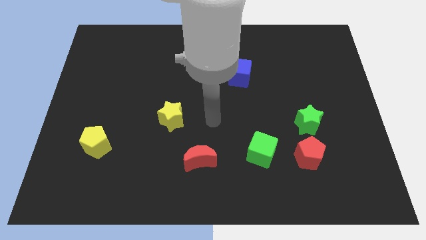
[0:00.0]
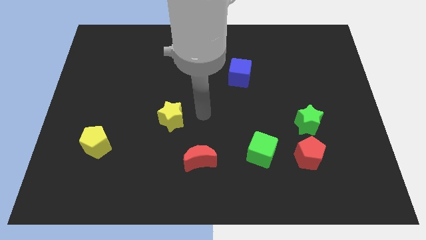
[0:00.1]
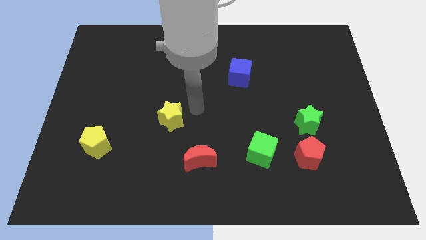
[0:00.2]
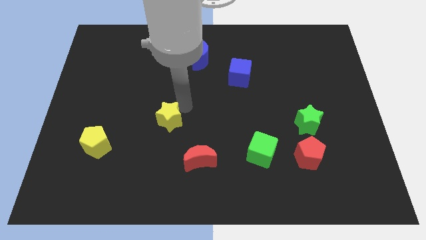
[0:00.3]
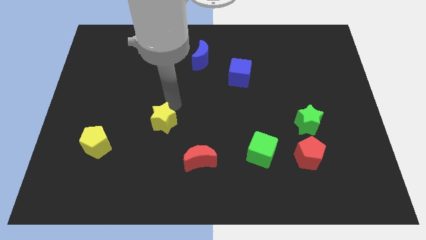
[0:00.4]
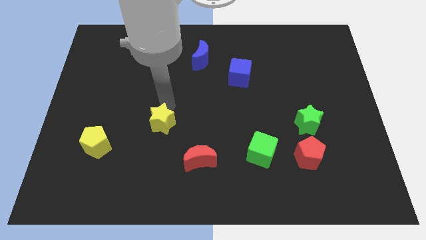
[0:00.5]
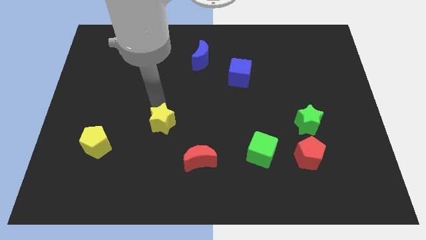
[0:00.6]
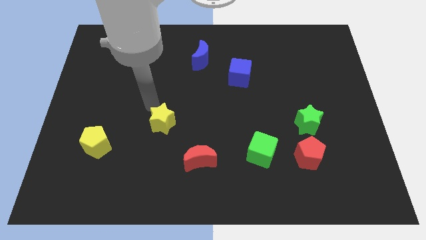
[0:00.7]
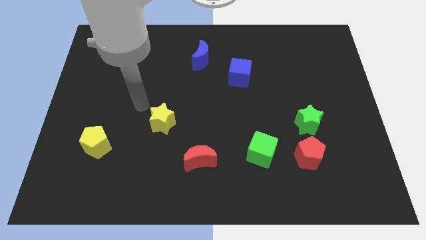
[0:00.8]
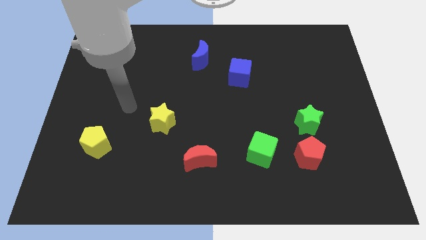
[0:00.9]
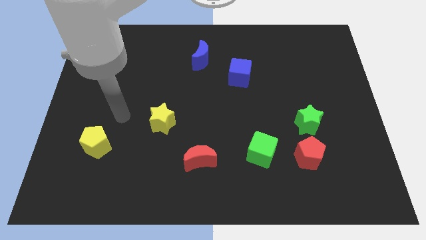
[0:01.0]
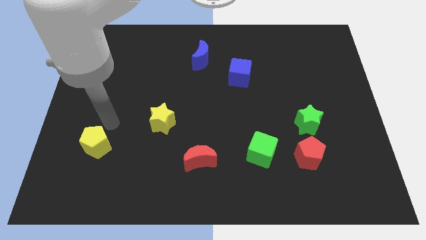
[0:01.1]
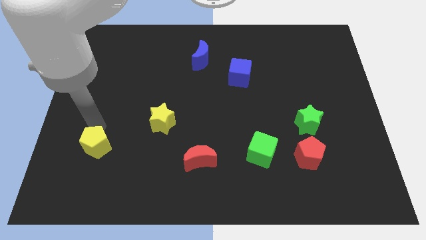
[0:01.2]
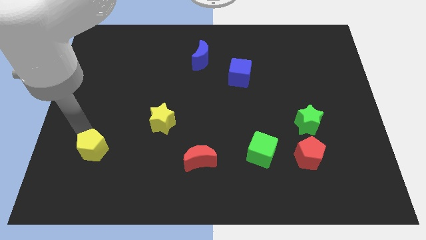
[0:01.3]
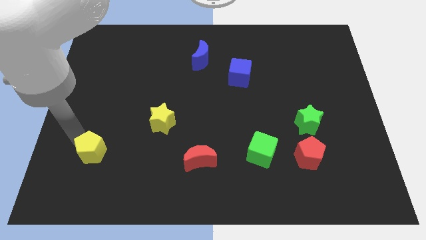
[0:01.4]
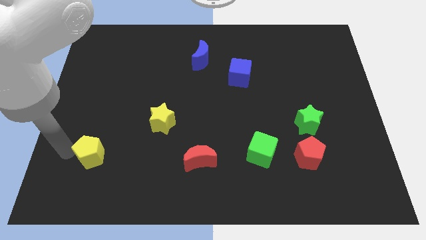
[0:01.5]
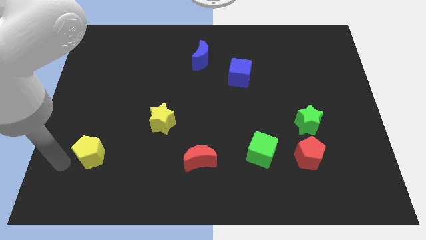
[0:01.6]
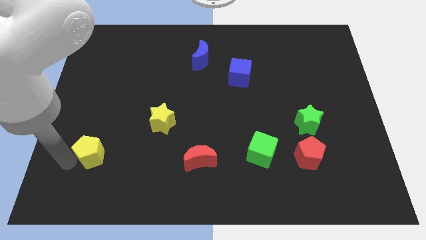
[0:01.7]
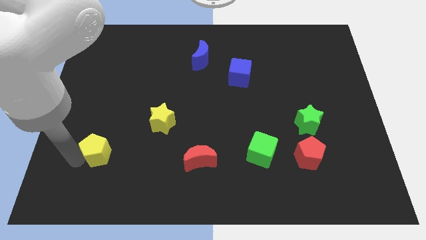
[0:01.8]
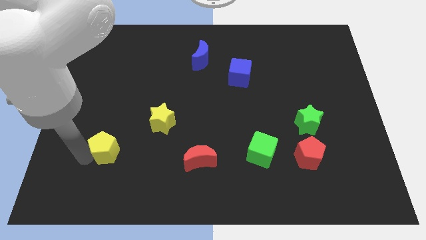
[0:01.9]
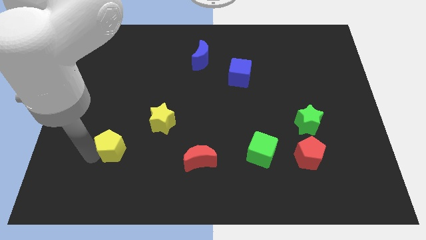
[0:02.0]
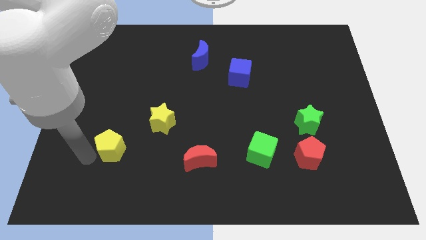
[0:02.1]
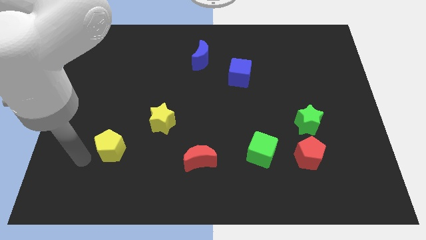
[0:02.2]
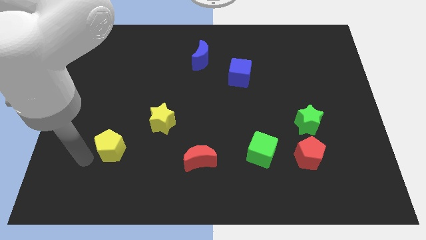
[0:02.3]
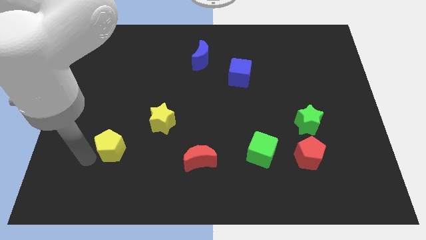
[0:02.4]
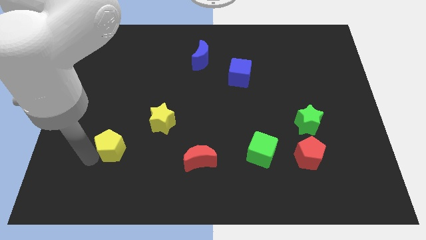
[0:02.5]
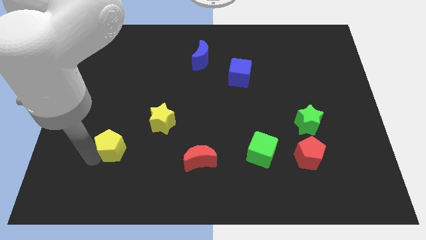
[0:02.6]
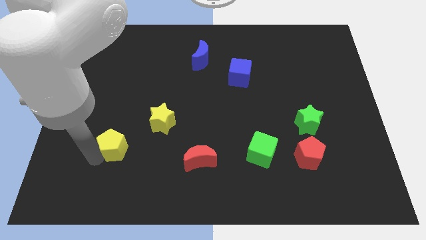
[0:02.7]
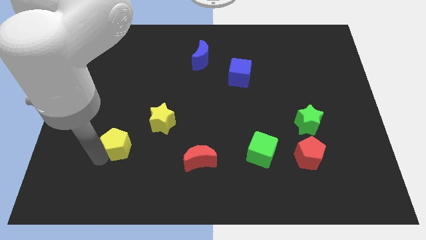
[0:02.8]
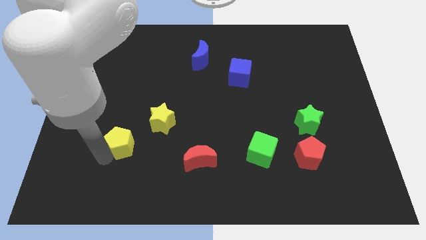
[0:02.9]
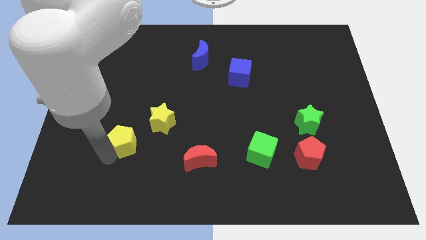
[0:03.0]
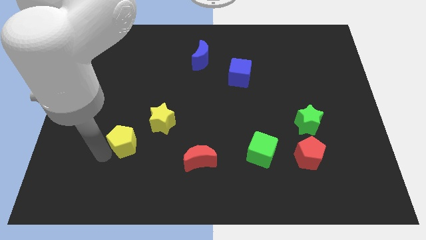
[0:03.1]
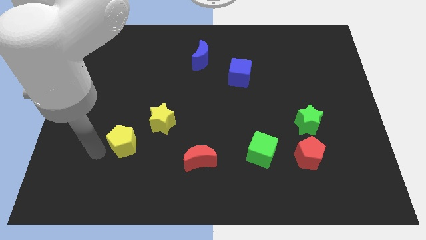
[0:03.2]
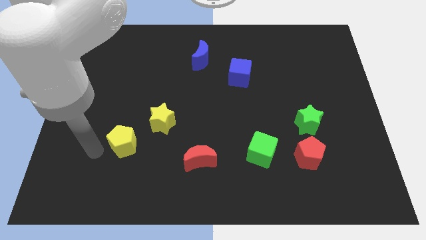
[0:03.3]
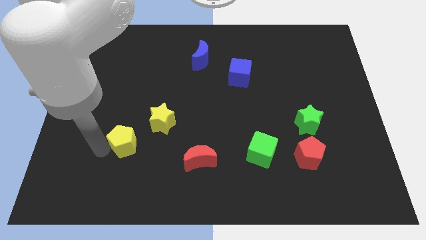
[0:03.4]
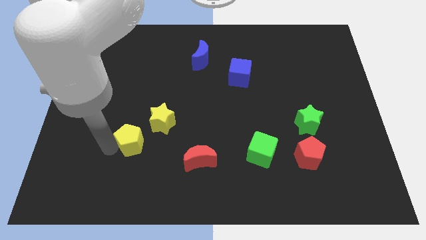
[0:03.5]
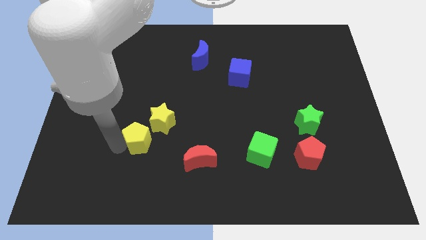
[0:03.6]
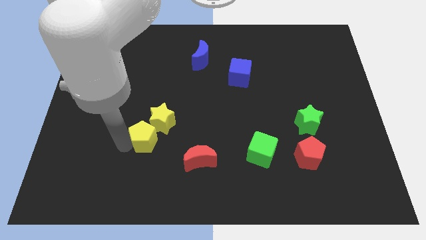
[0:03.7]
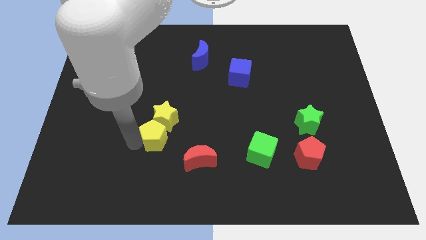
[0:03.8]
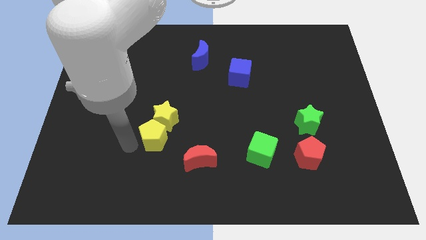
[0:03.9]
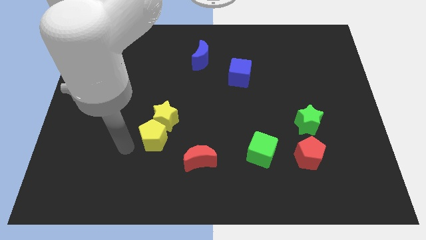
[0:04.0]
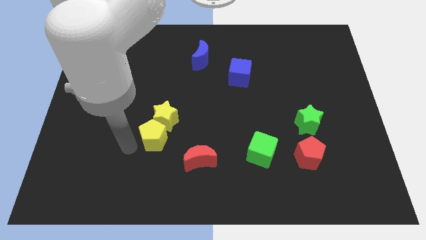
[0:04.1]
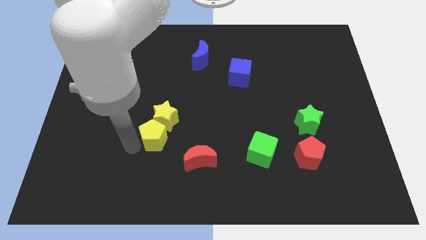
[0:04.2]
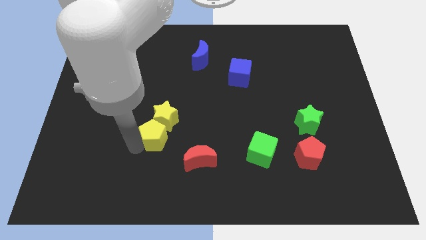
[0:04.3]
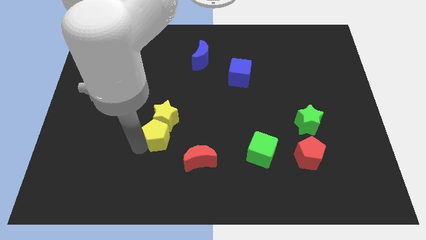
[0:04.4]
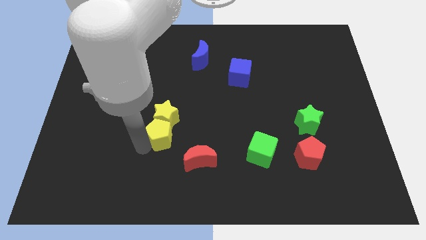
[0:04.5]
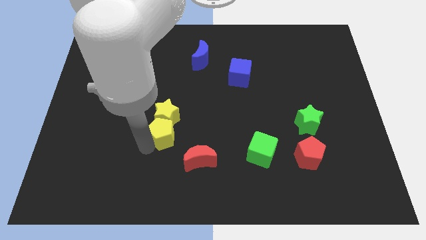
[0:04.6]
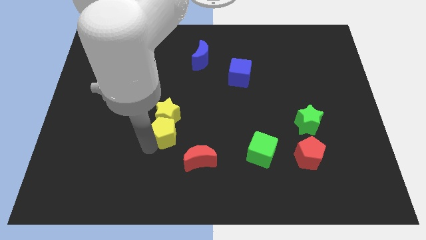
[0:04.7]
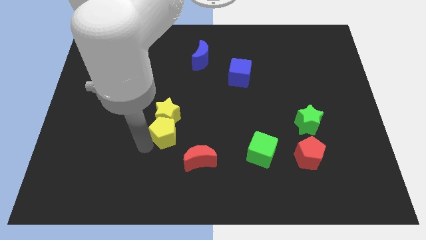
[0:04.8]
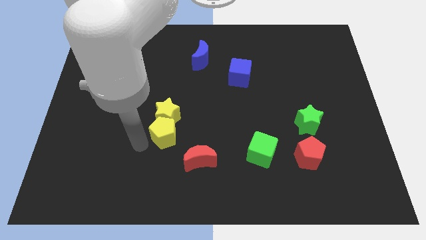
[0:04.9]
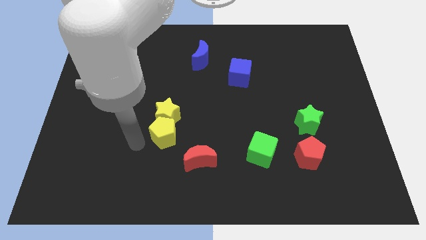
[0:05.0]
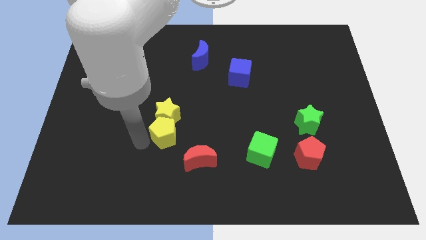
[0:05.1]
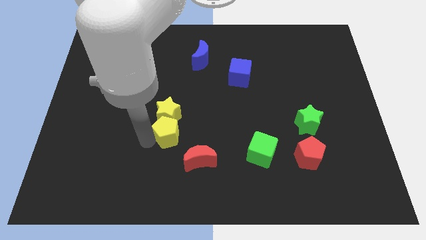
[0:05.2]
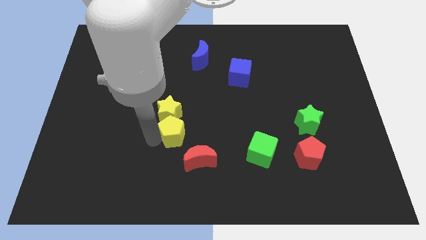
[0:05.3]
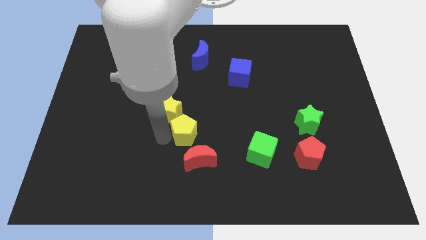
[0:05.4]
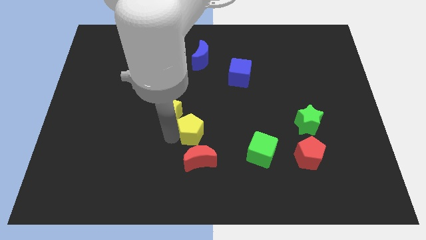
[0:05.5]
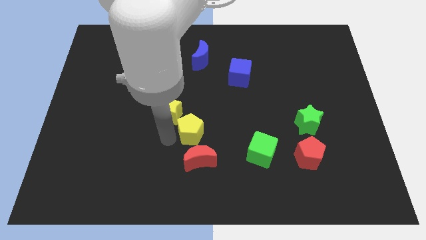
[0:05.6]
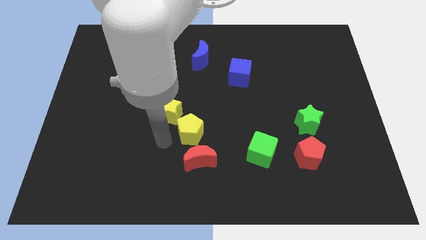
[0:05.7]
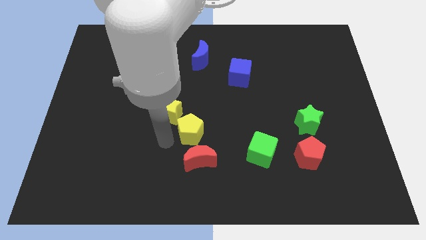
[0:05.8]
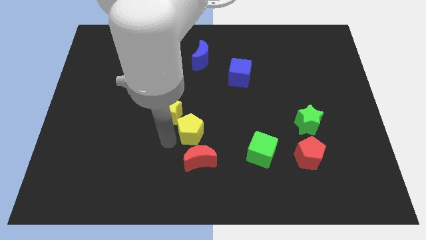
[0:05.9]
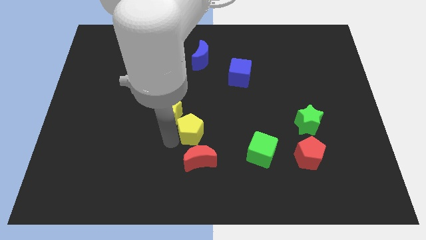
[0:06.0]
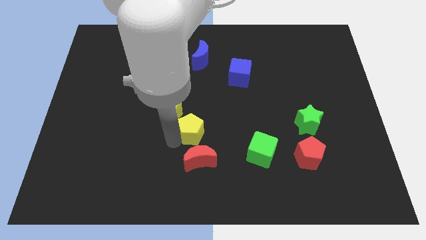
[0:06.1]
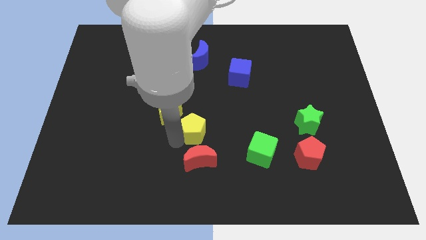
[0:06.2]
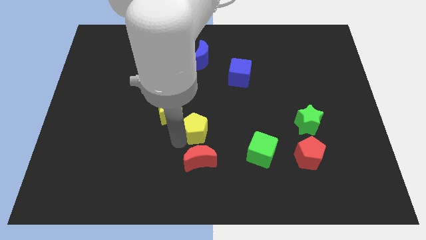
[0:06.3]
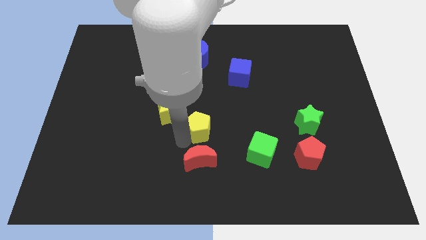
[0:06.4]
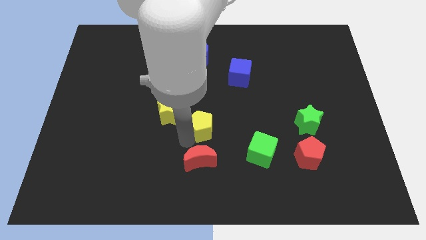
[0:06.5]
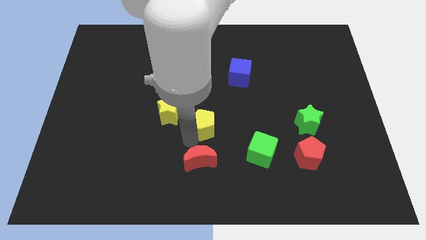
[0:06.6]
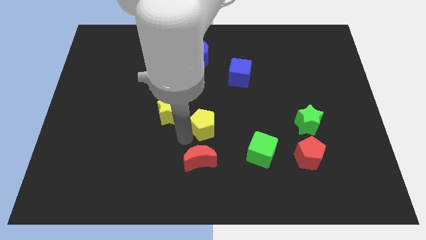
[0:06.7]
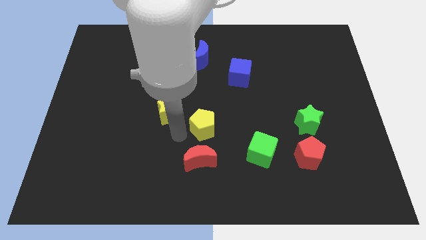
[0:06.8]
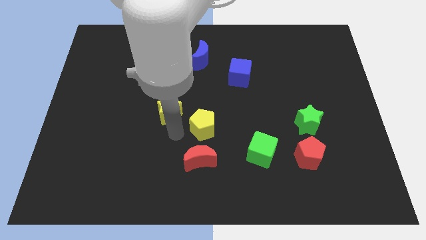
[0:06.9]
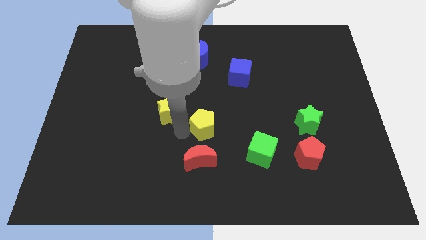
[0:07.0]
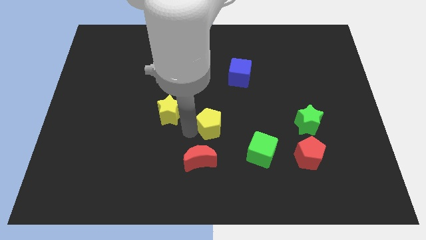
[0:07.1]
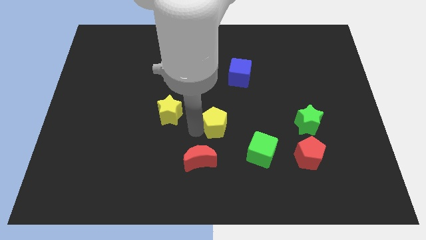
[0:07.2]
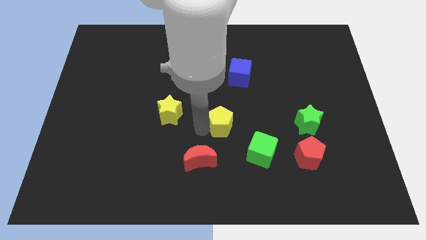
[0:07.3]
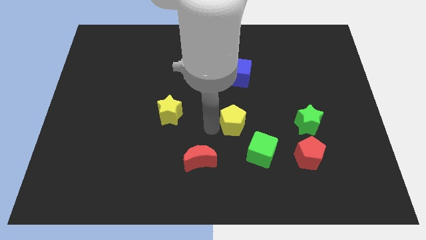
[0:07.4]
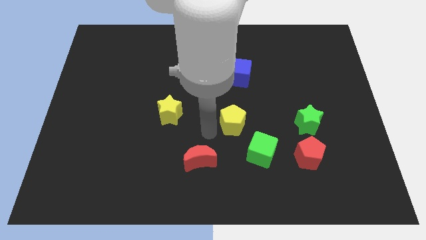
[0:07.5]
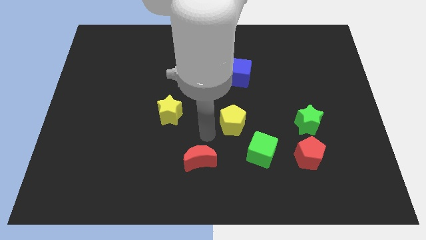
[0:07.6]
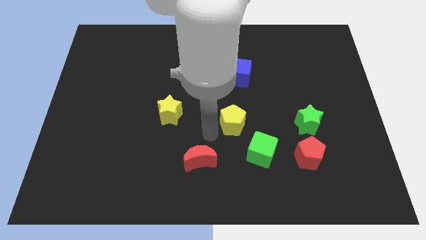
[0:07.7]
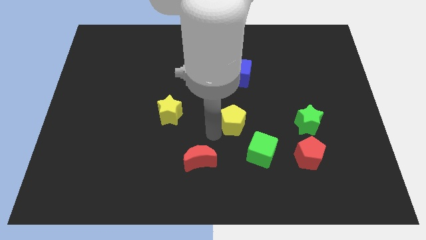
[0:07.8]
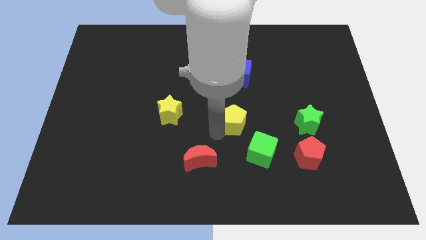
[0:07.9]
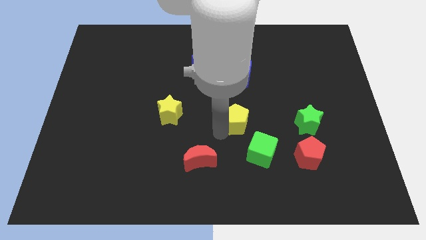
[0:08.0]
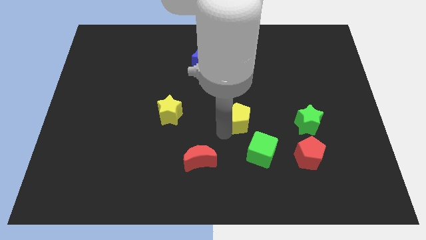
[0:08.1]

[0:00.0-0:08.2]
put the yellow pentagon above the green cube
